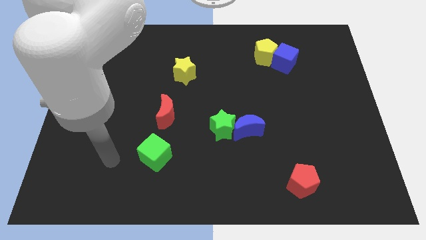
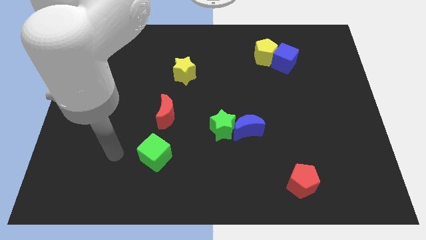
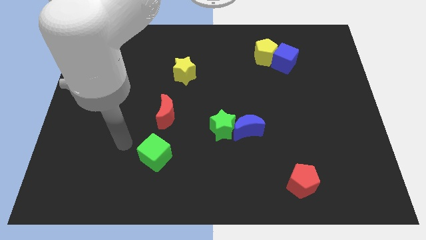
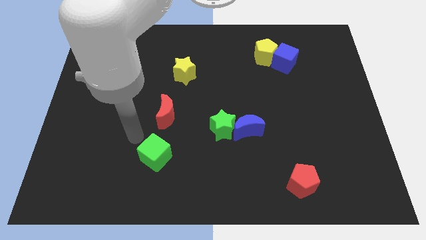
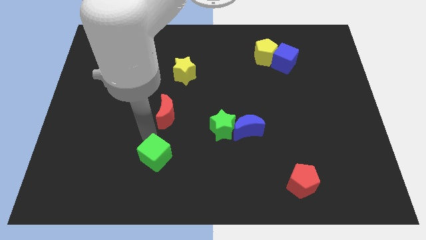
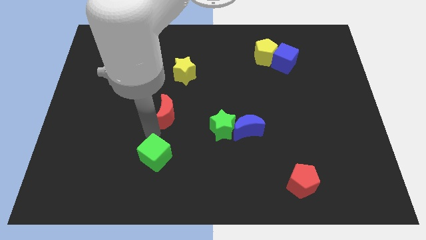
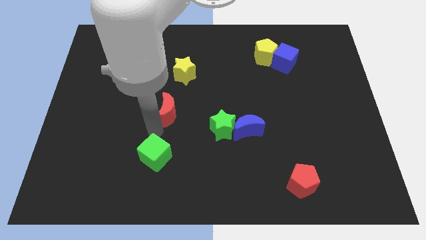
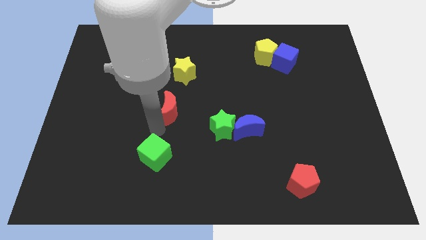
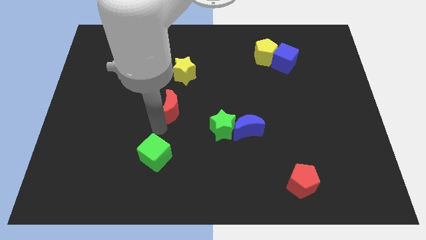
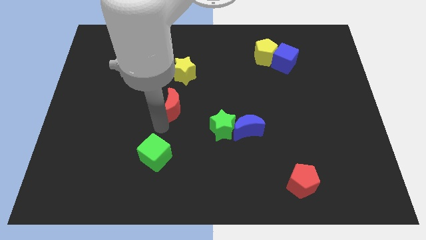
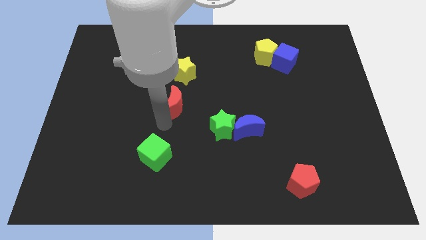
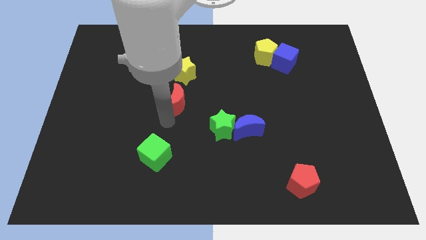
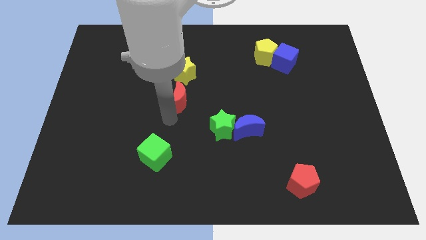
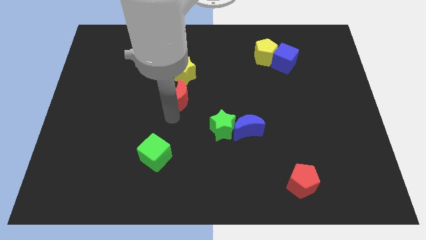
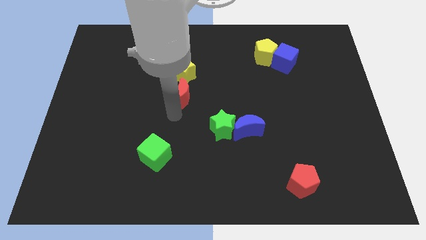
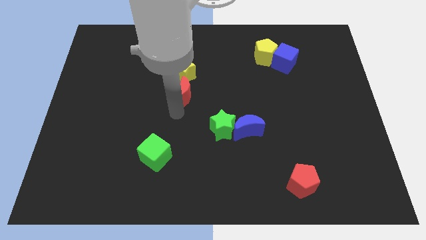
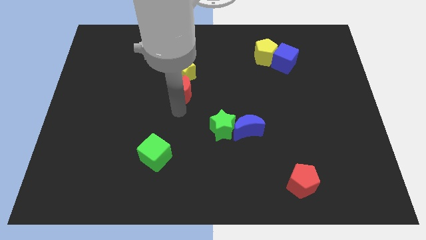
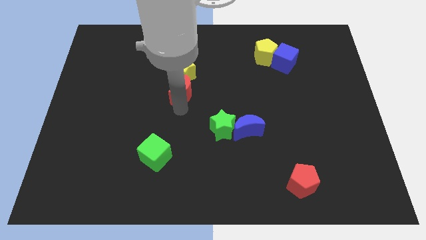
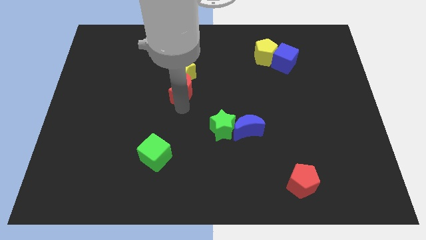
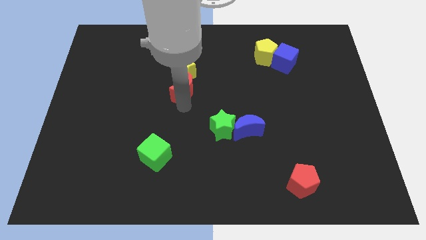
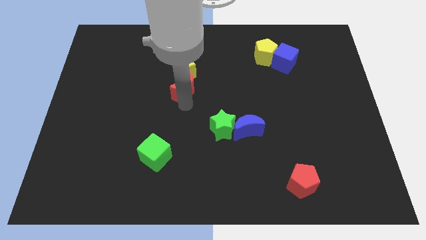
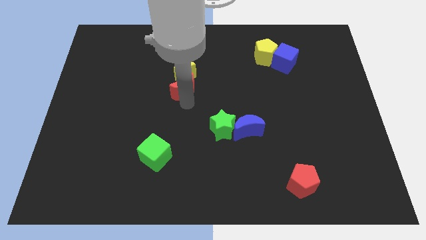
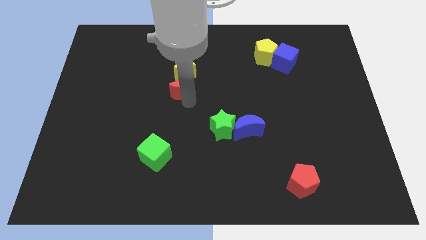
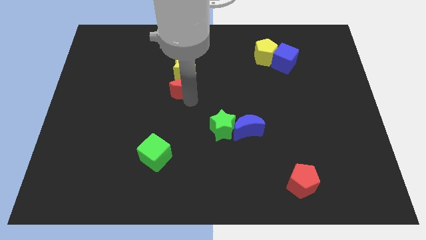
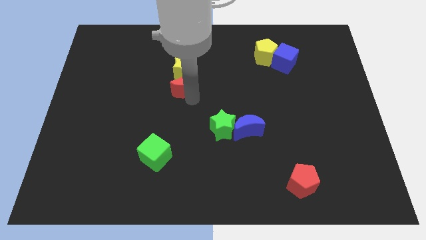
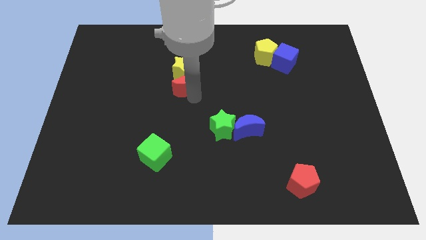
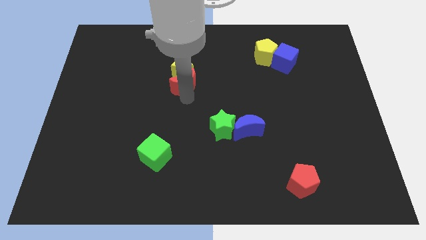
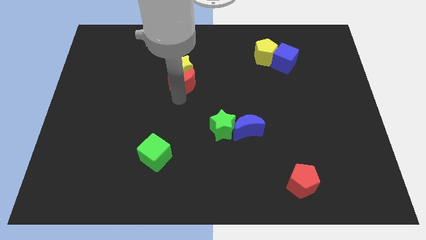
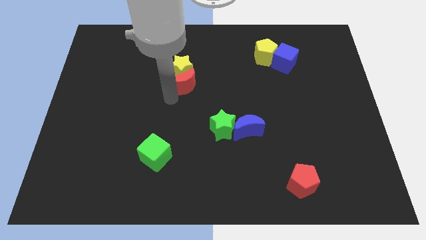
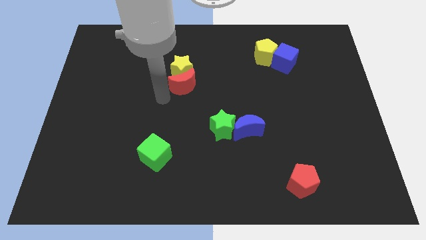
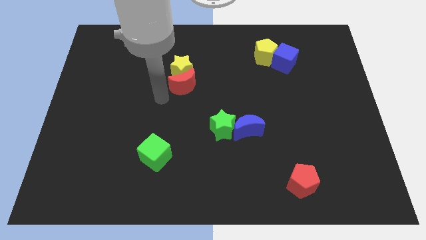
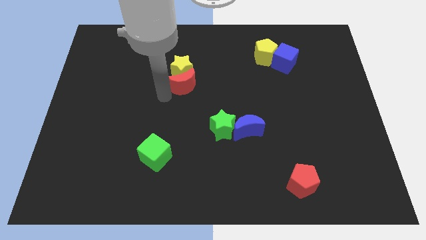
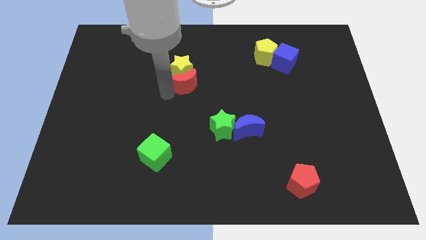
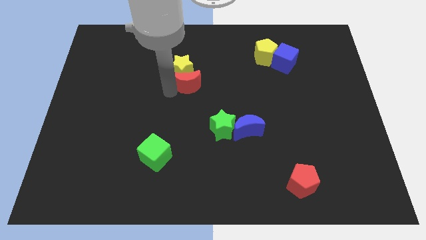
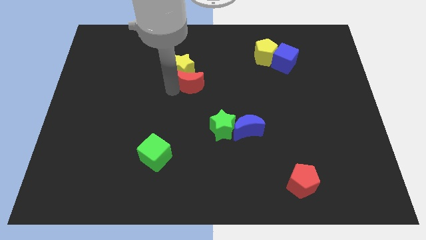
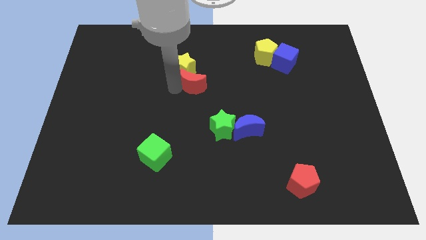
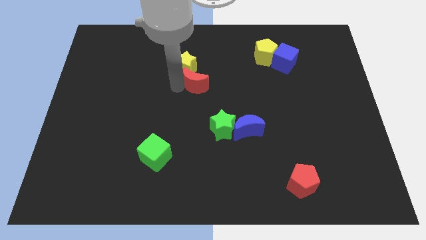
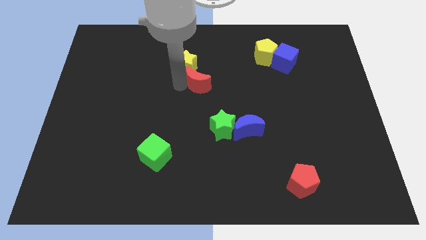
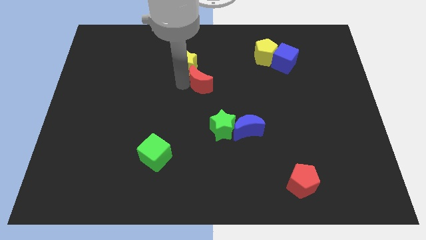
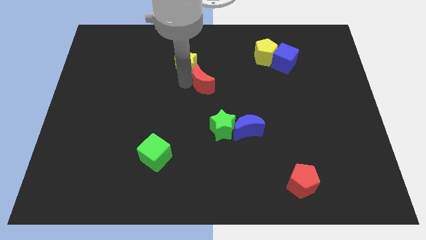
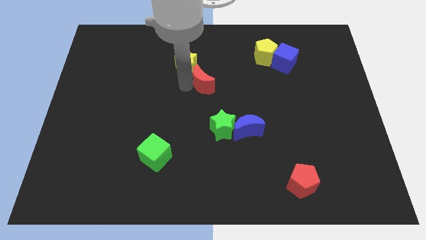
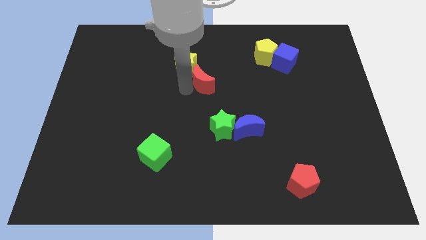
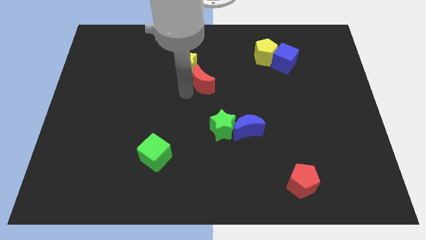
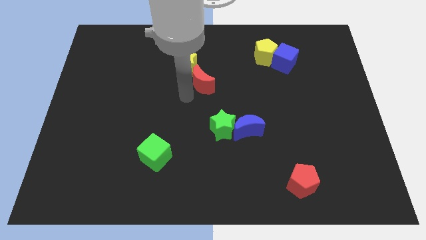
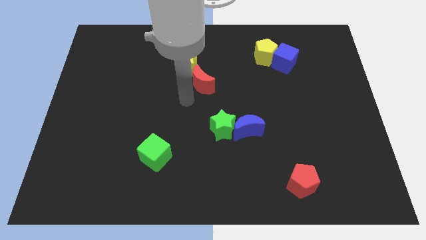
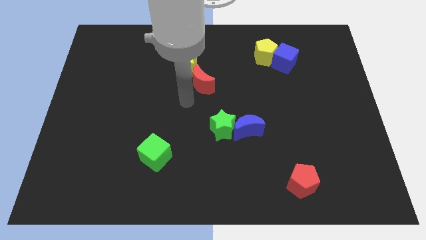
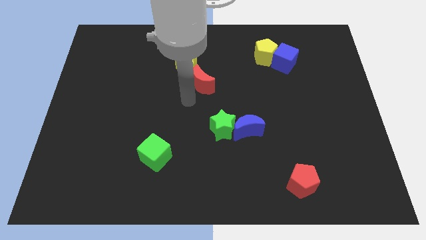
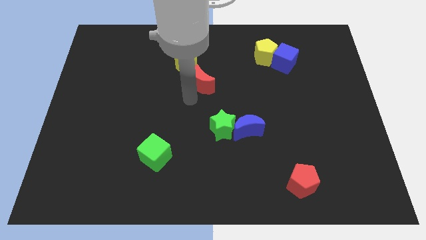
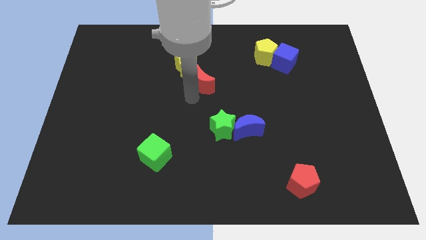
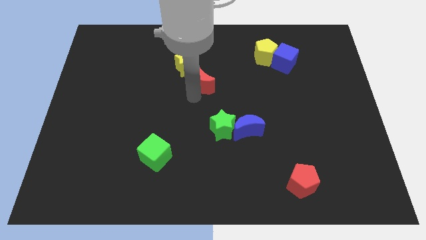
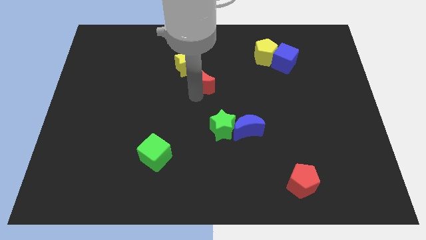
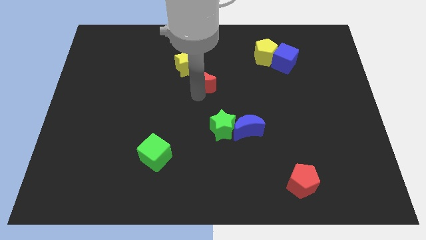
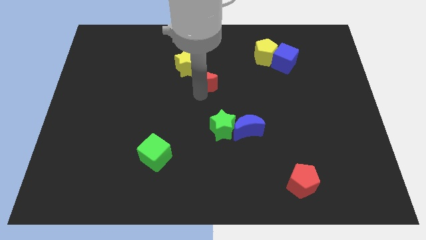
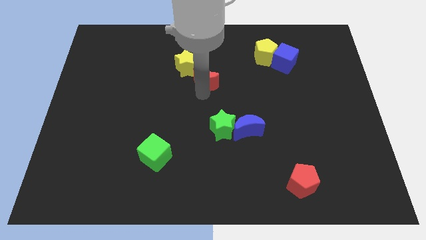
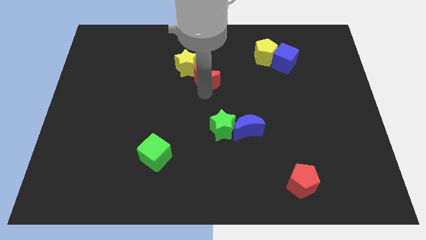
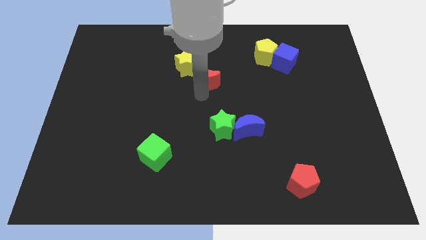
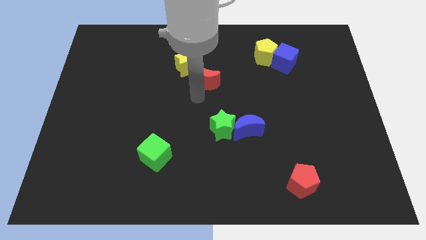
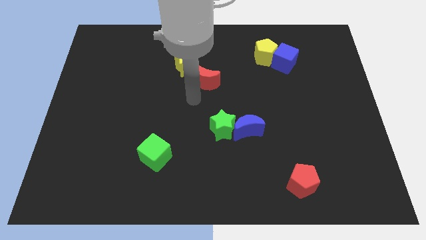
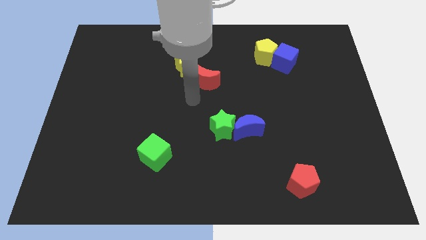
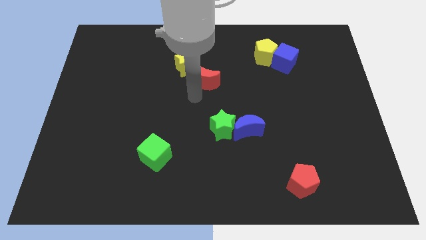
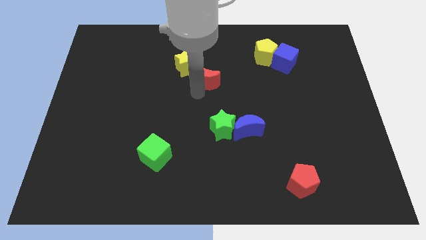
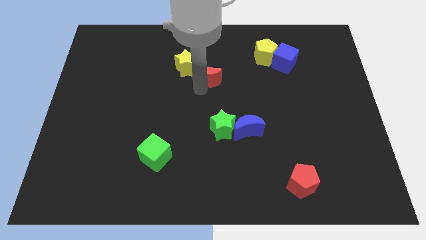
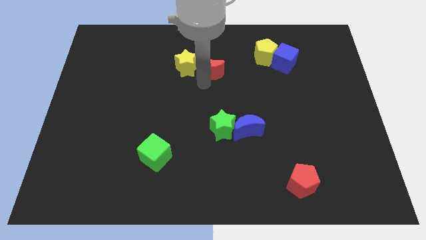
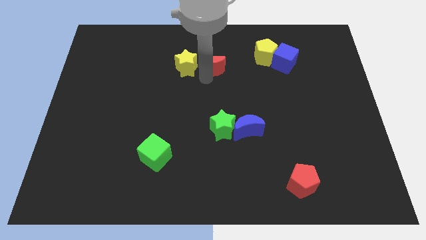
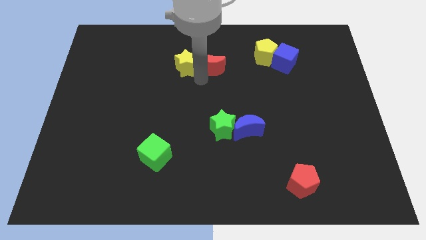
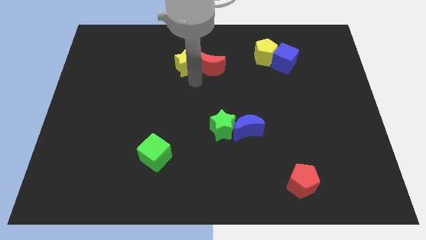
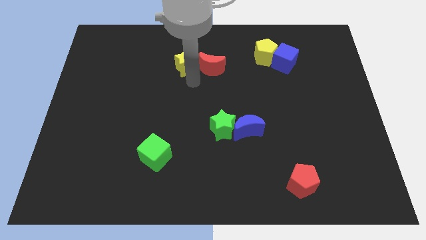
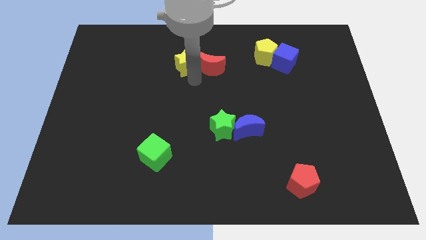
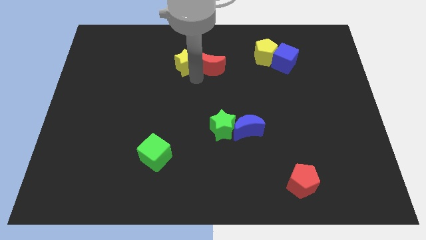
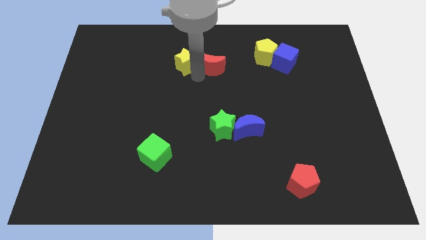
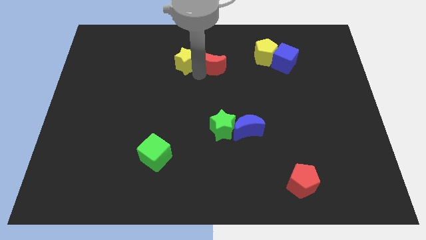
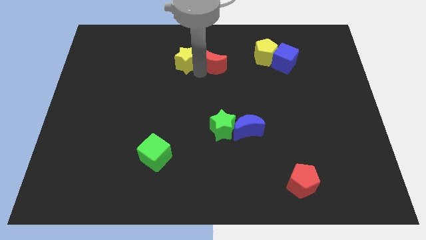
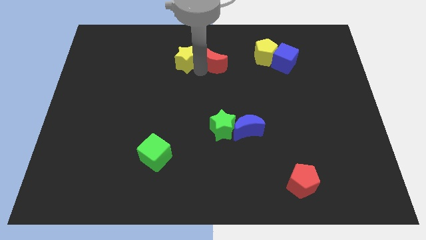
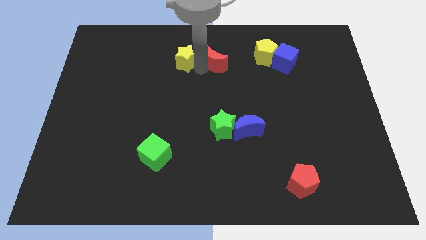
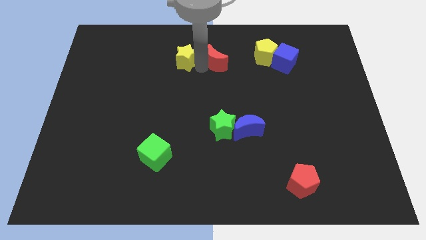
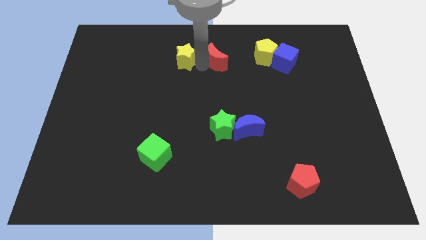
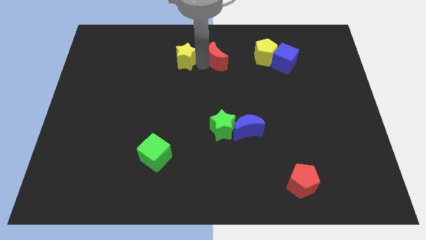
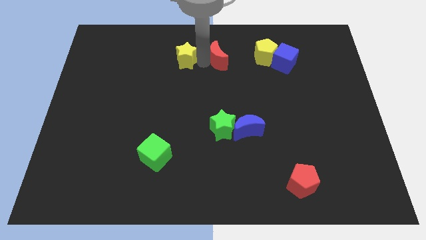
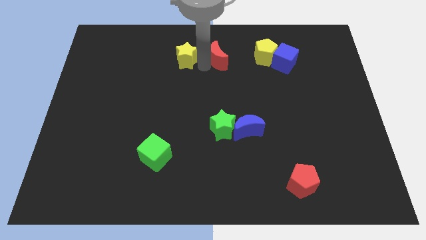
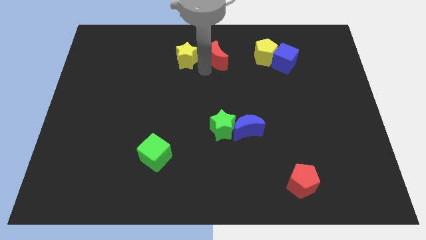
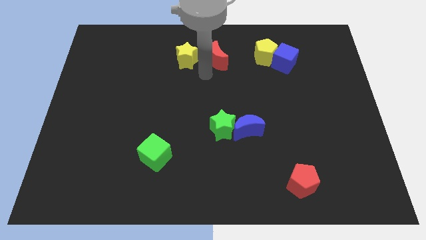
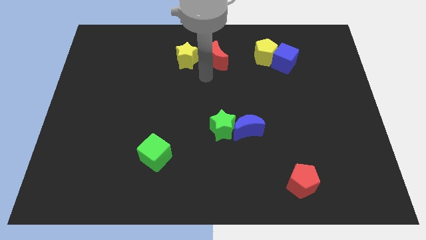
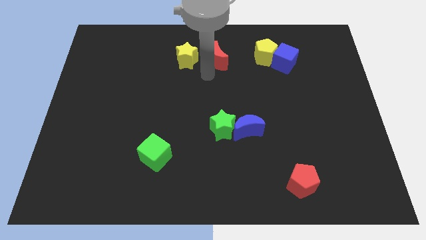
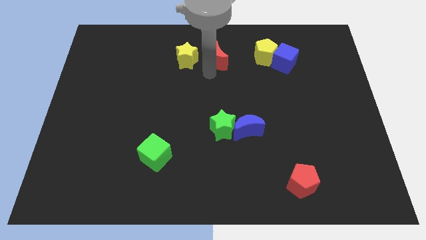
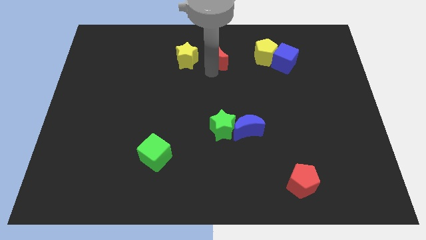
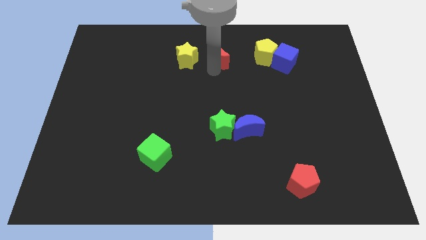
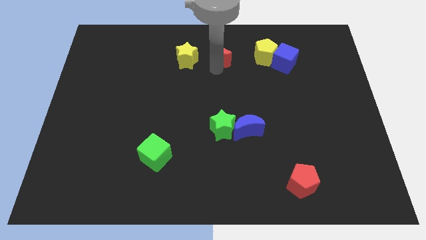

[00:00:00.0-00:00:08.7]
push the red moon to the top
